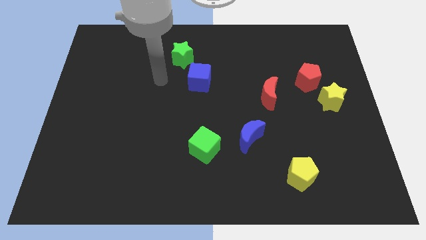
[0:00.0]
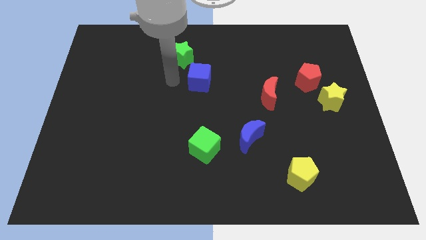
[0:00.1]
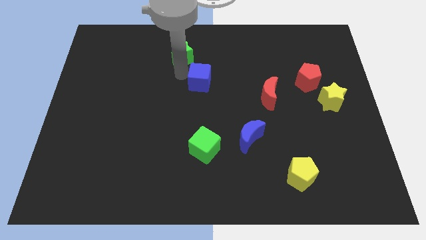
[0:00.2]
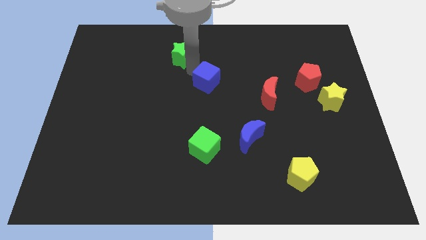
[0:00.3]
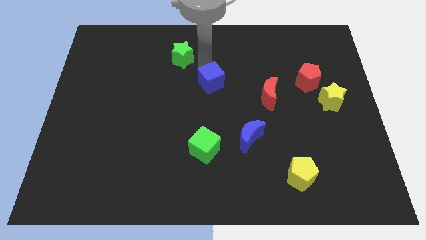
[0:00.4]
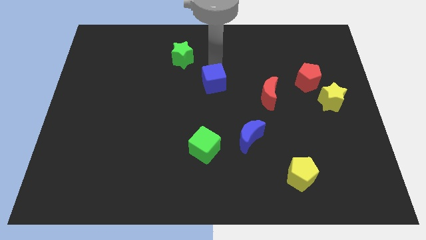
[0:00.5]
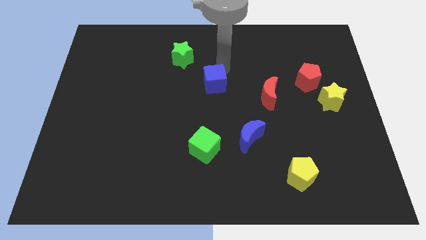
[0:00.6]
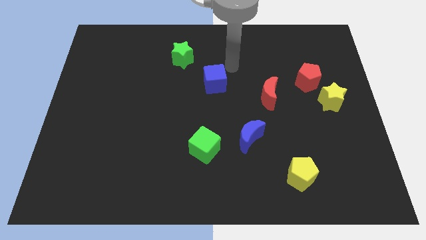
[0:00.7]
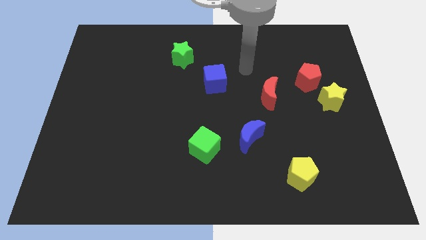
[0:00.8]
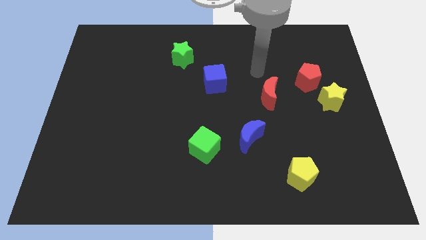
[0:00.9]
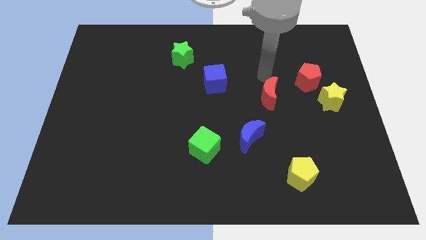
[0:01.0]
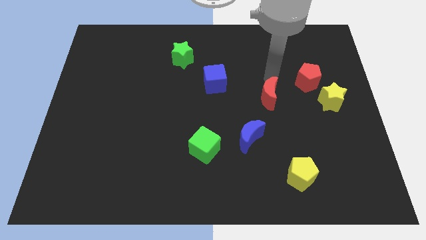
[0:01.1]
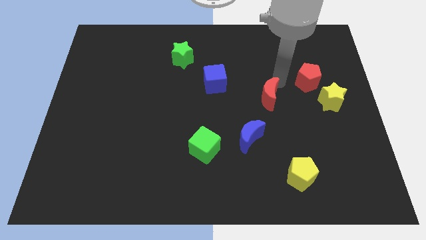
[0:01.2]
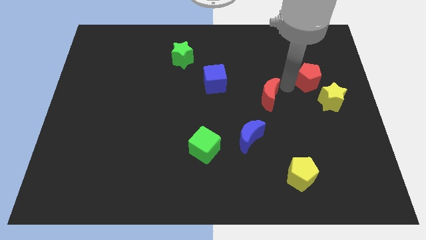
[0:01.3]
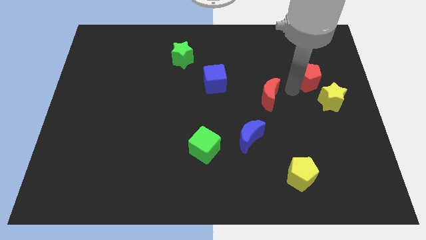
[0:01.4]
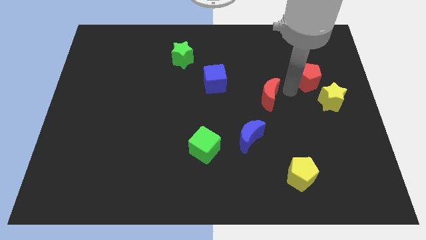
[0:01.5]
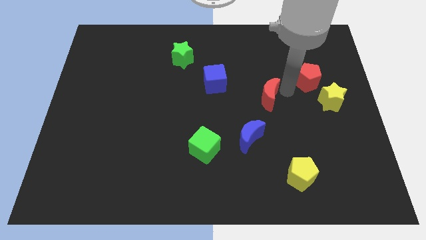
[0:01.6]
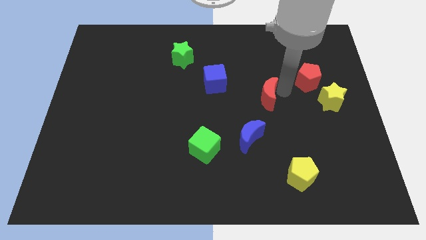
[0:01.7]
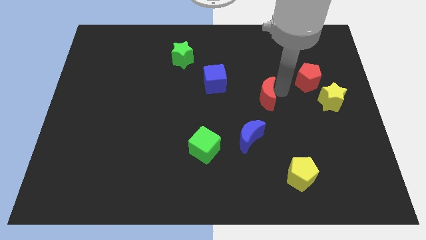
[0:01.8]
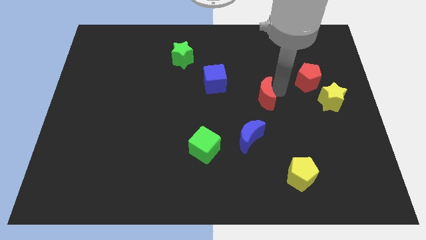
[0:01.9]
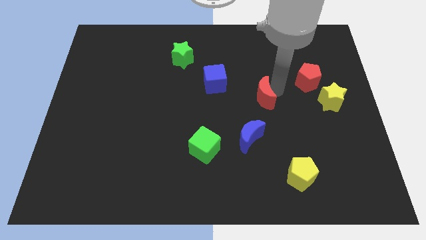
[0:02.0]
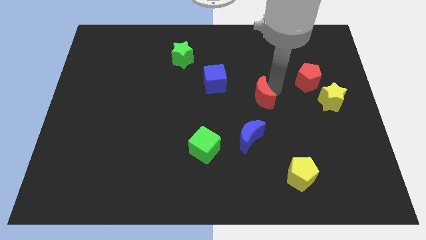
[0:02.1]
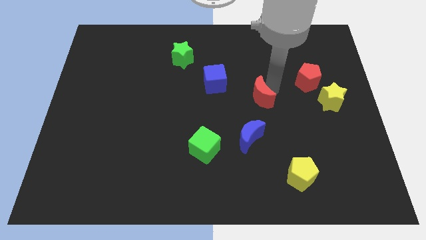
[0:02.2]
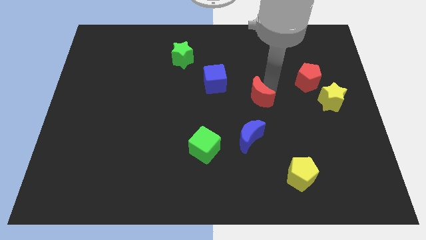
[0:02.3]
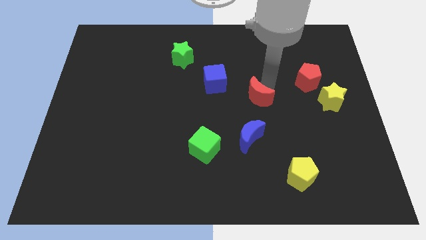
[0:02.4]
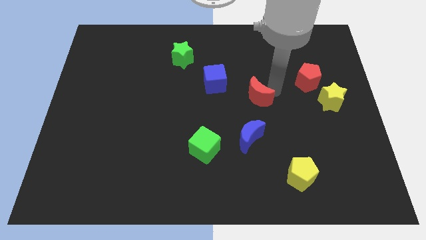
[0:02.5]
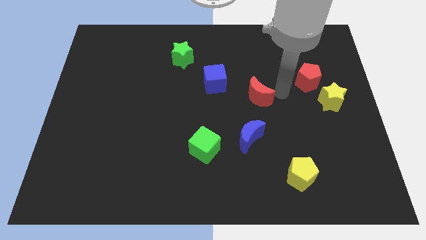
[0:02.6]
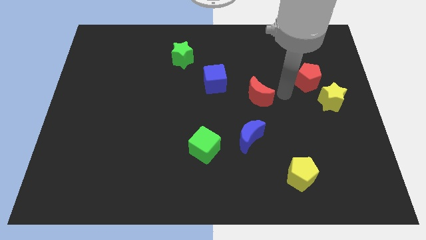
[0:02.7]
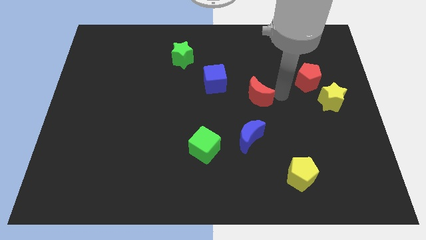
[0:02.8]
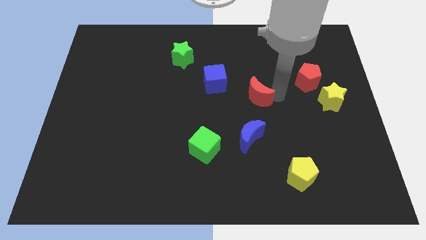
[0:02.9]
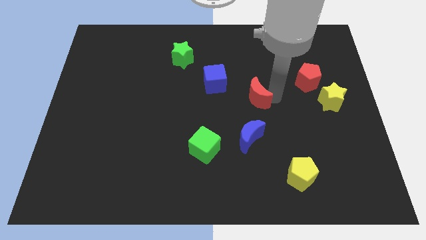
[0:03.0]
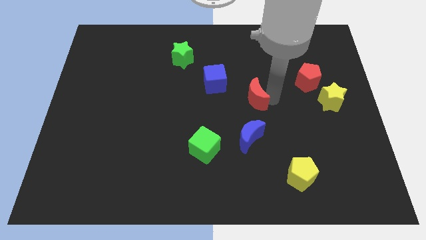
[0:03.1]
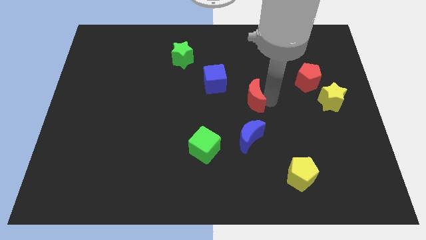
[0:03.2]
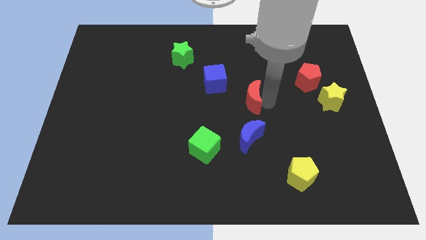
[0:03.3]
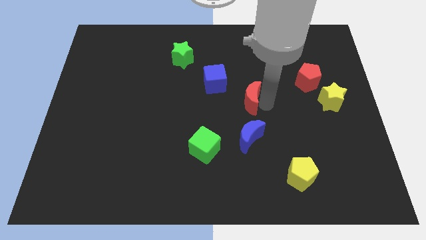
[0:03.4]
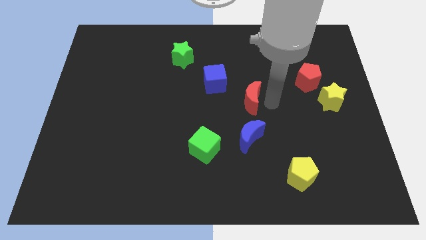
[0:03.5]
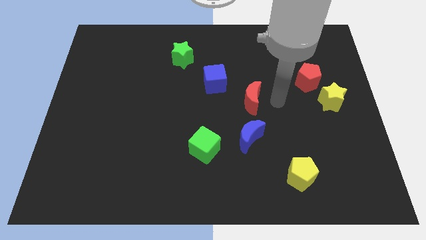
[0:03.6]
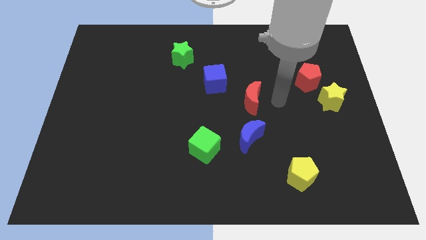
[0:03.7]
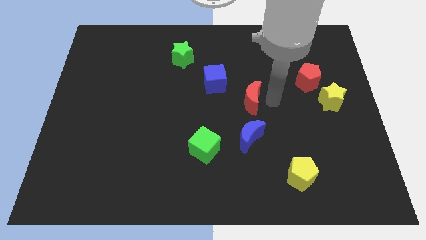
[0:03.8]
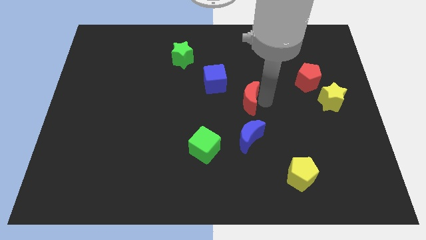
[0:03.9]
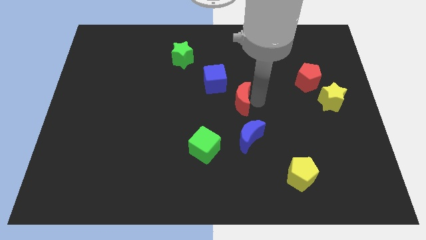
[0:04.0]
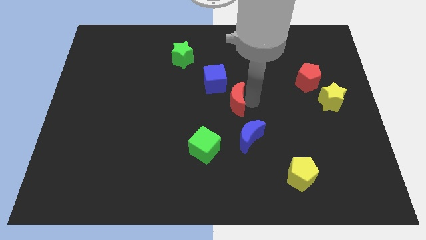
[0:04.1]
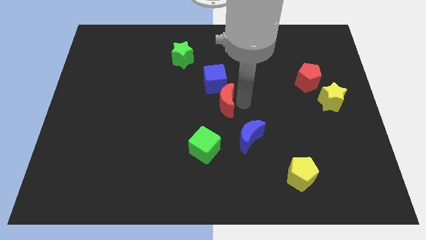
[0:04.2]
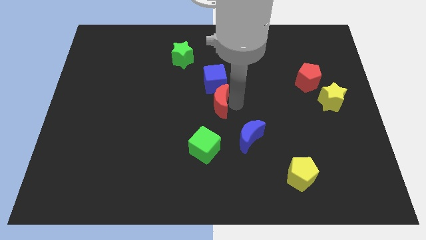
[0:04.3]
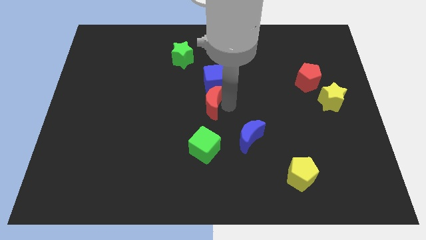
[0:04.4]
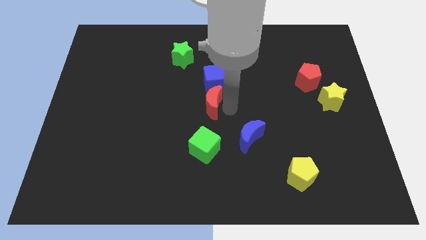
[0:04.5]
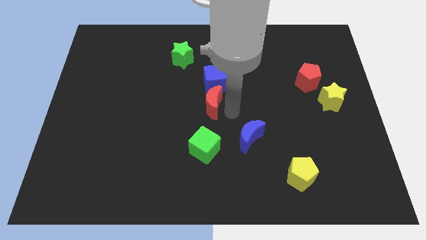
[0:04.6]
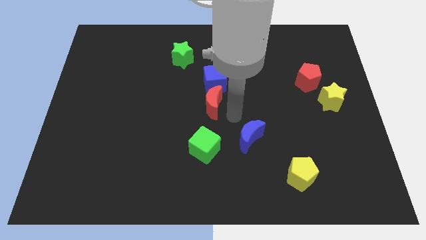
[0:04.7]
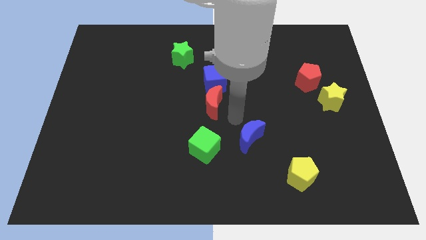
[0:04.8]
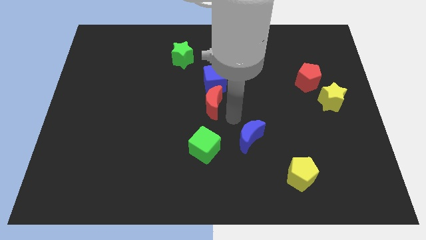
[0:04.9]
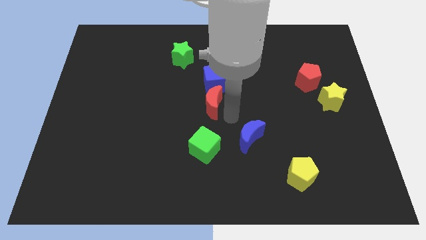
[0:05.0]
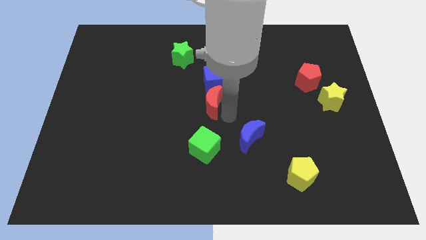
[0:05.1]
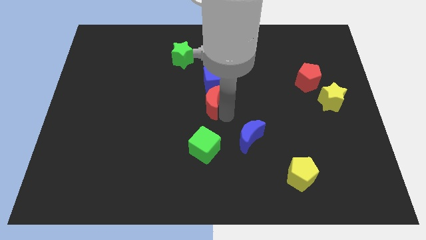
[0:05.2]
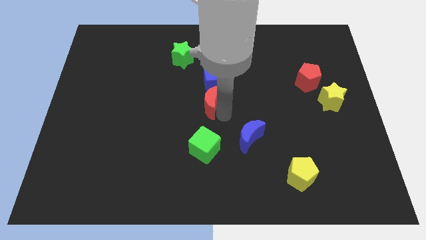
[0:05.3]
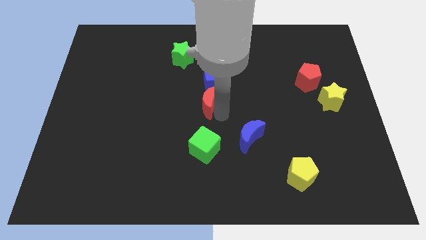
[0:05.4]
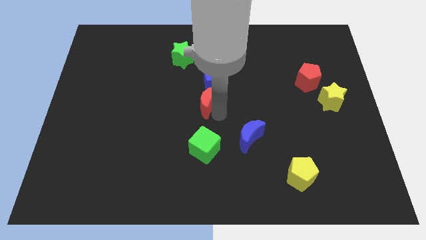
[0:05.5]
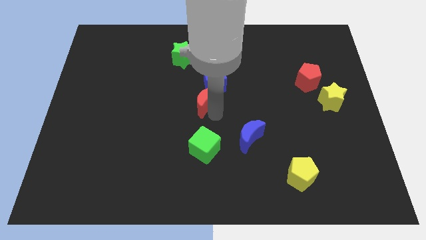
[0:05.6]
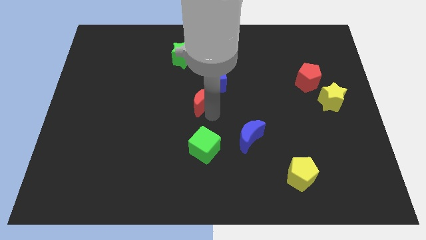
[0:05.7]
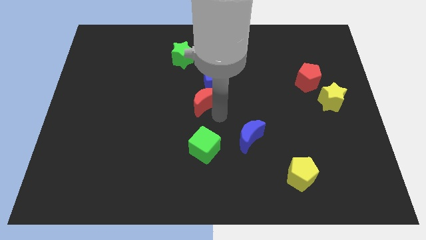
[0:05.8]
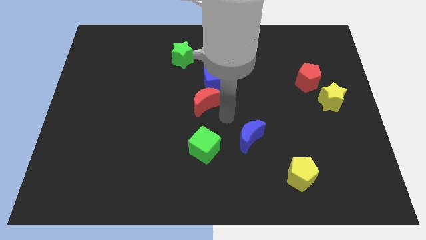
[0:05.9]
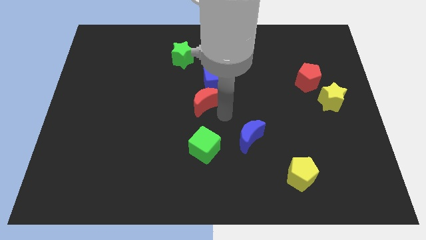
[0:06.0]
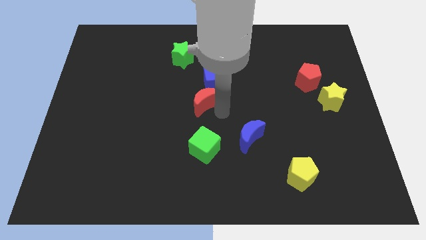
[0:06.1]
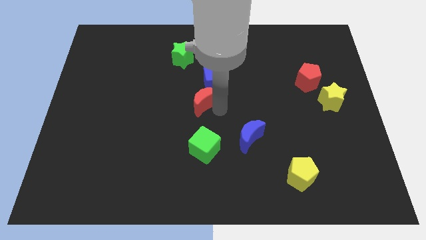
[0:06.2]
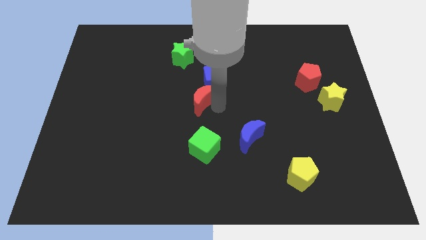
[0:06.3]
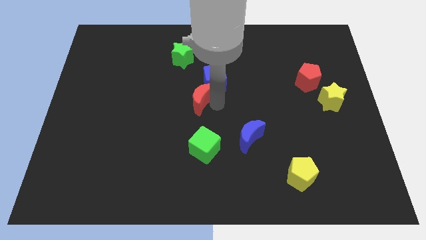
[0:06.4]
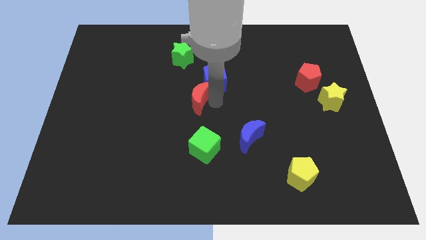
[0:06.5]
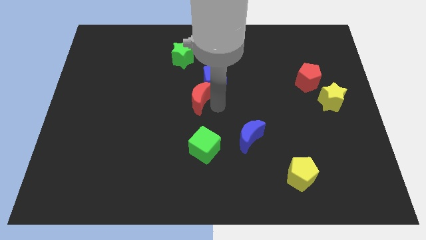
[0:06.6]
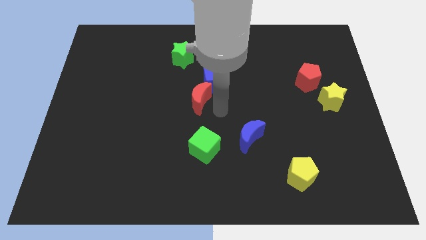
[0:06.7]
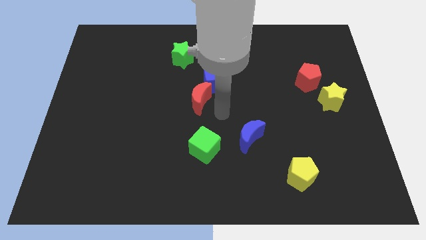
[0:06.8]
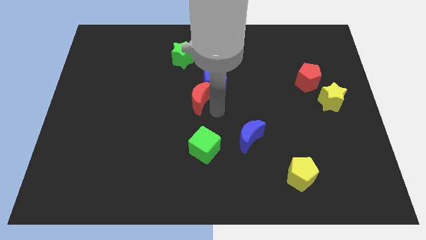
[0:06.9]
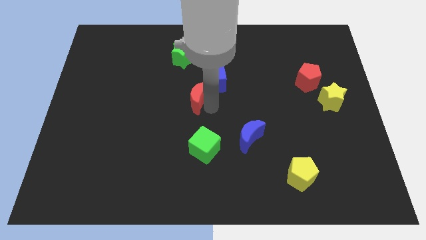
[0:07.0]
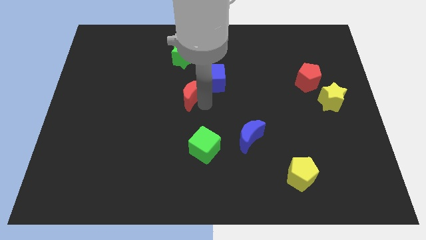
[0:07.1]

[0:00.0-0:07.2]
push the red moon to the bottom side of the green star
